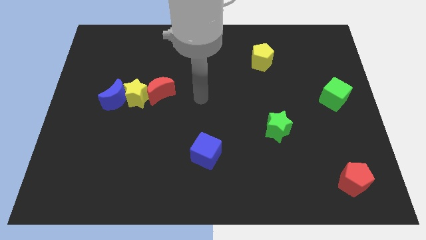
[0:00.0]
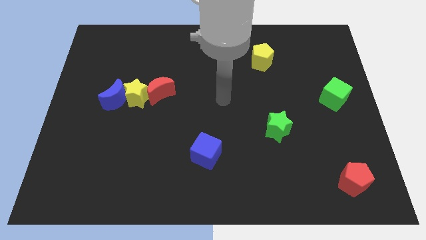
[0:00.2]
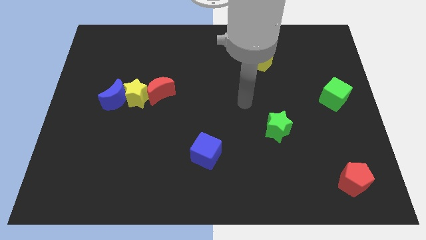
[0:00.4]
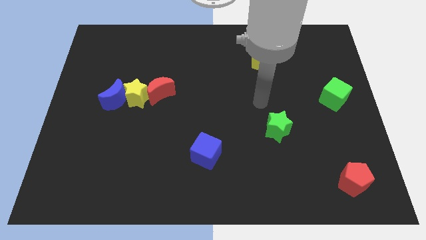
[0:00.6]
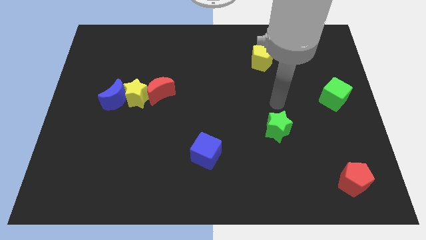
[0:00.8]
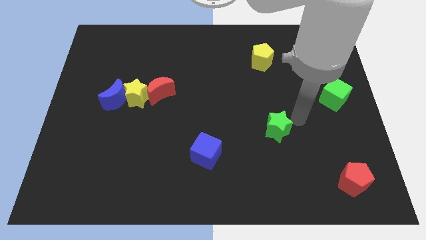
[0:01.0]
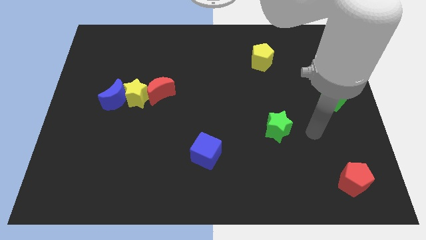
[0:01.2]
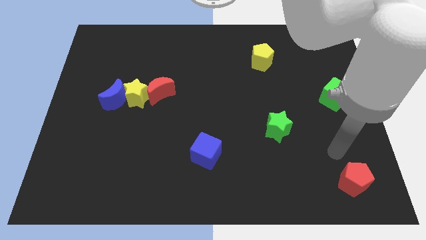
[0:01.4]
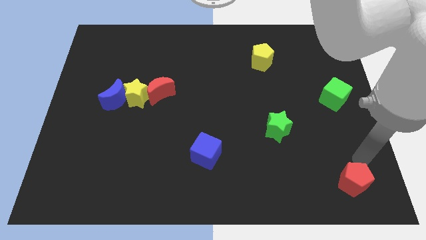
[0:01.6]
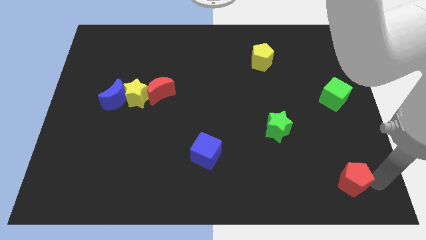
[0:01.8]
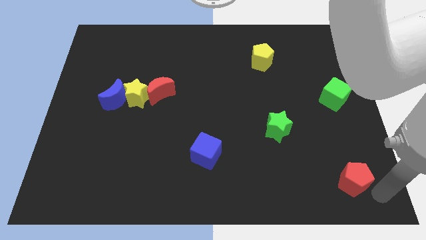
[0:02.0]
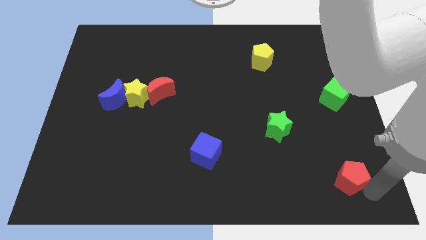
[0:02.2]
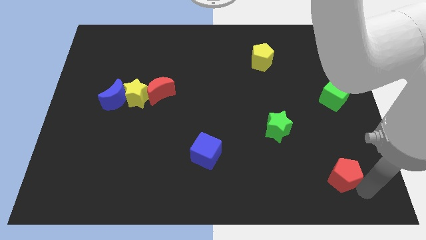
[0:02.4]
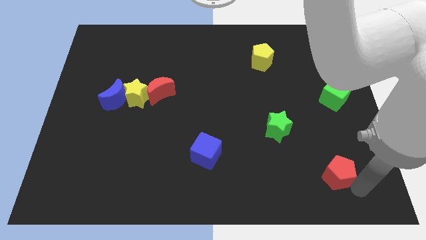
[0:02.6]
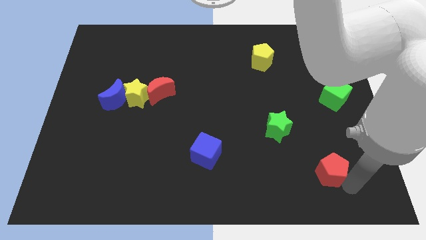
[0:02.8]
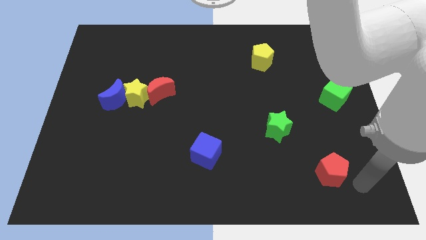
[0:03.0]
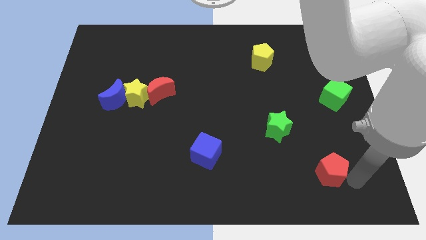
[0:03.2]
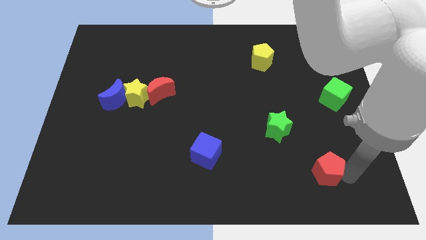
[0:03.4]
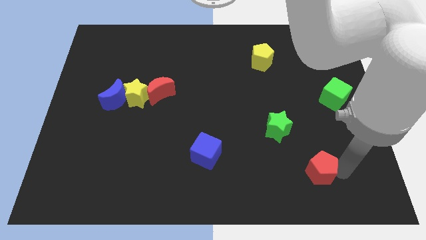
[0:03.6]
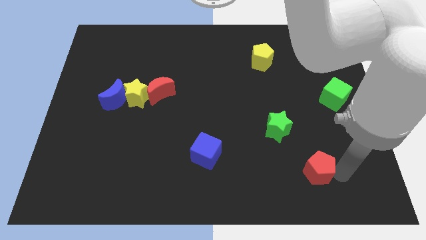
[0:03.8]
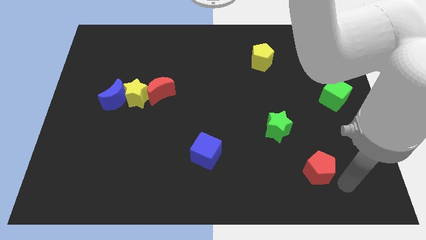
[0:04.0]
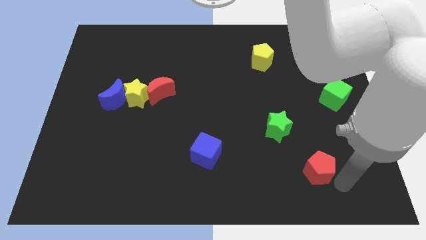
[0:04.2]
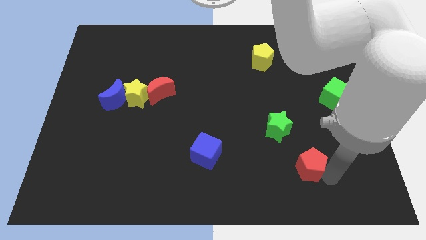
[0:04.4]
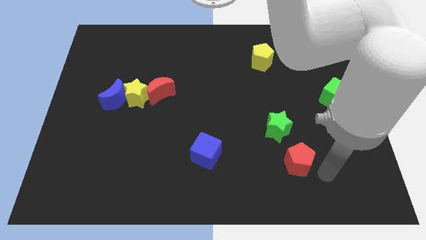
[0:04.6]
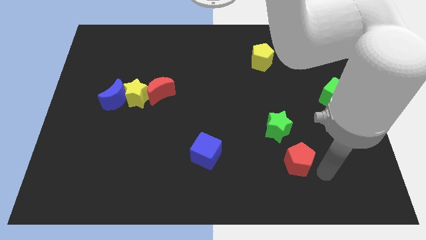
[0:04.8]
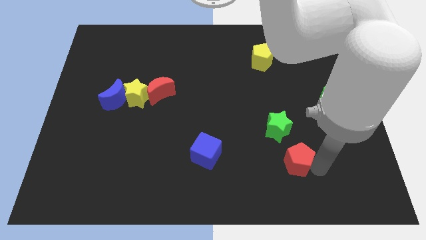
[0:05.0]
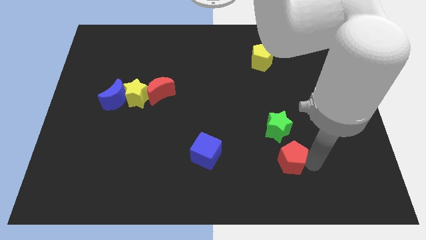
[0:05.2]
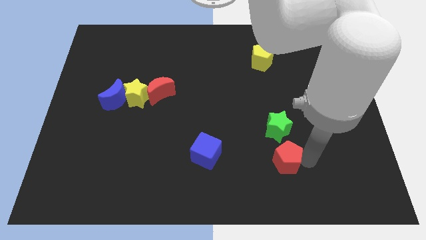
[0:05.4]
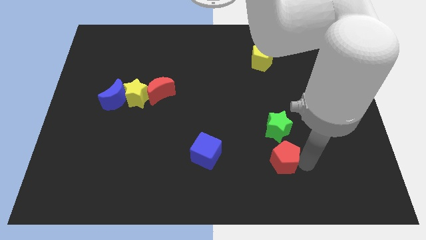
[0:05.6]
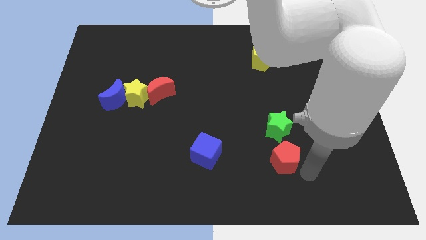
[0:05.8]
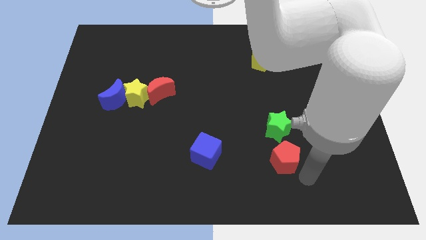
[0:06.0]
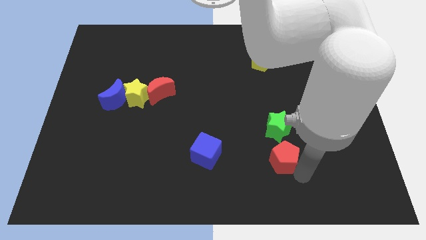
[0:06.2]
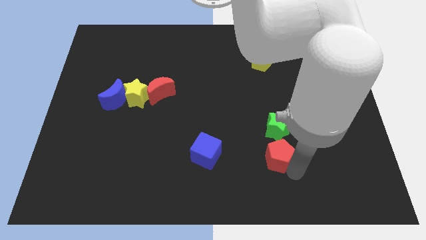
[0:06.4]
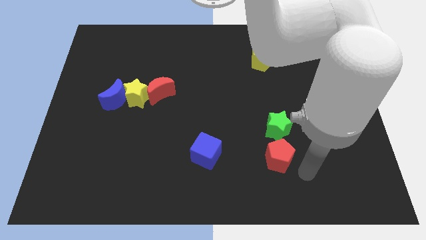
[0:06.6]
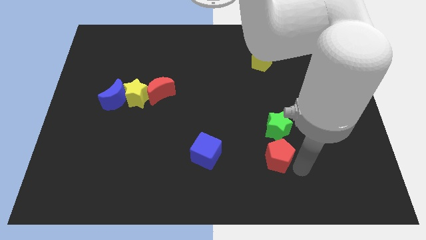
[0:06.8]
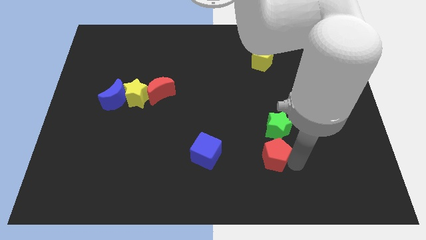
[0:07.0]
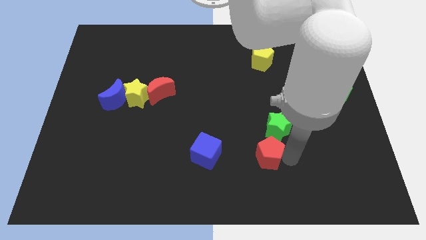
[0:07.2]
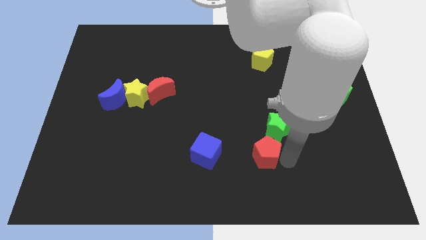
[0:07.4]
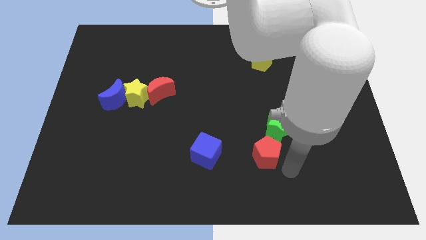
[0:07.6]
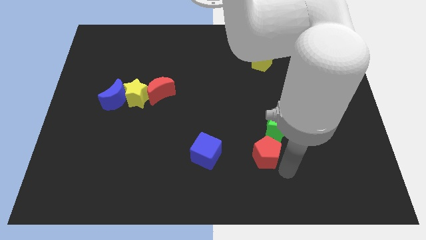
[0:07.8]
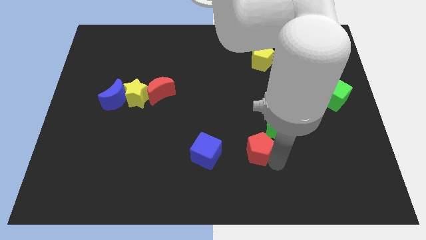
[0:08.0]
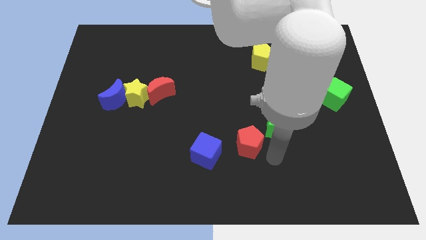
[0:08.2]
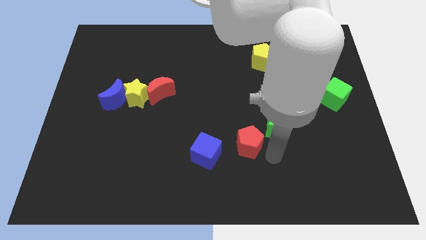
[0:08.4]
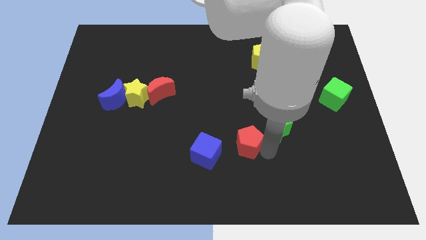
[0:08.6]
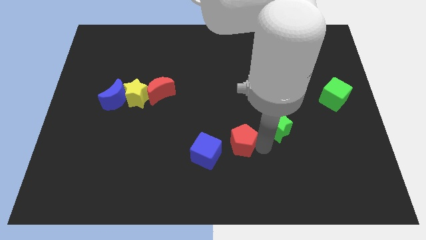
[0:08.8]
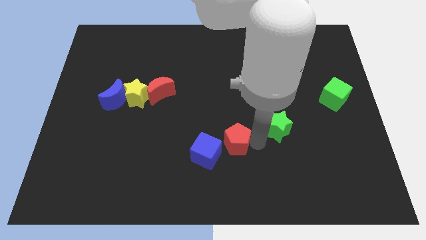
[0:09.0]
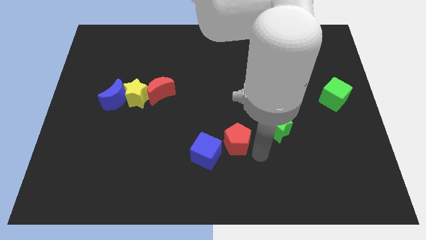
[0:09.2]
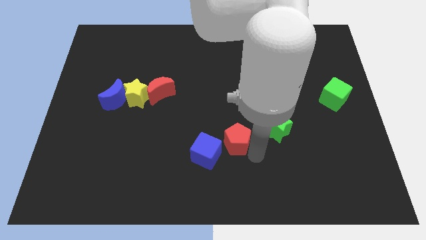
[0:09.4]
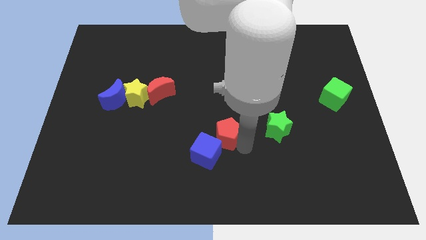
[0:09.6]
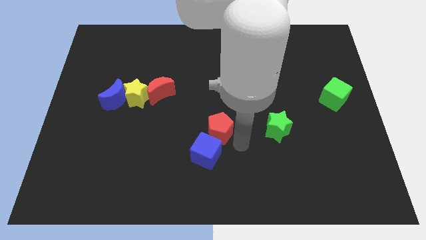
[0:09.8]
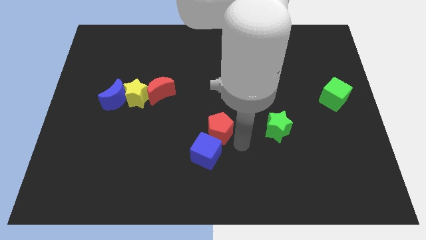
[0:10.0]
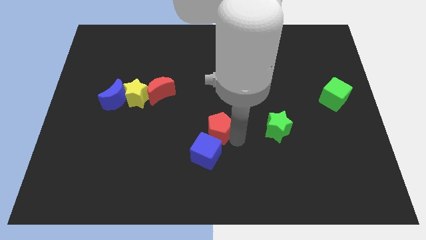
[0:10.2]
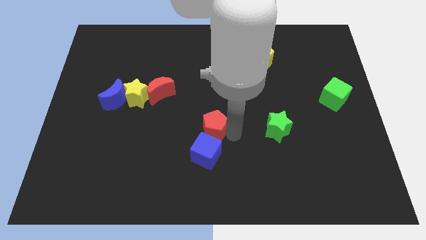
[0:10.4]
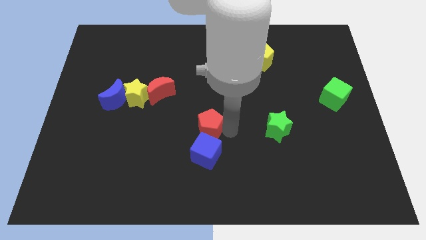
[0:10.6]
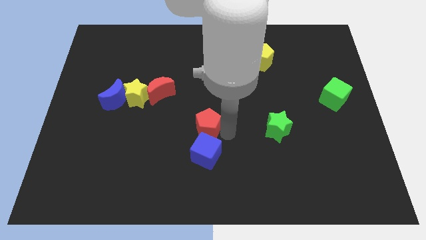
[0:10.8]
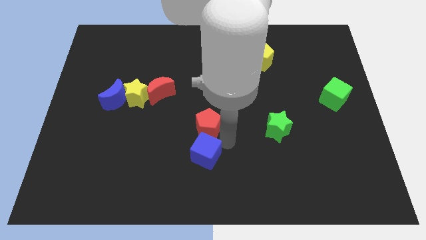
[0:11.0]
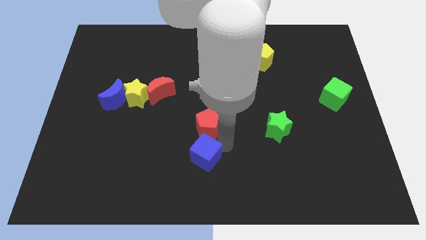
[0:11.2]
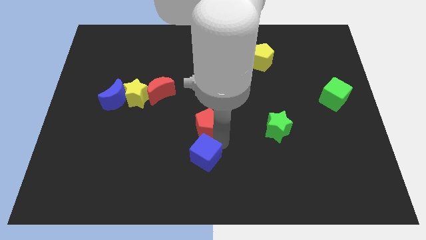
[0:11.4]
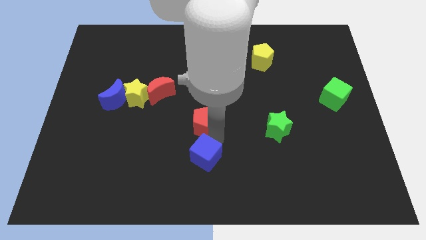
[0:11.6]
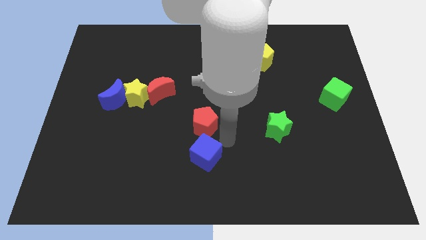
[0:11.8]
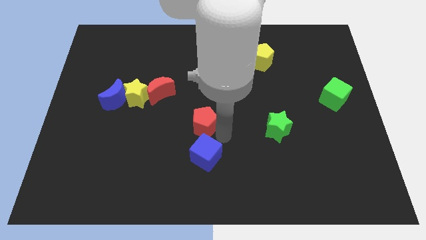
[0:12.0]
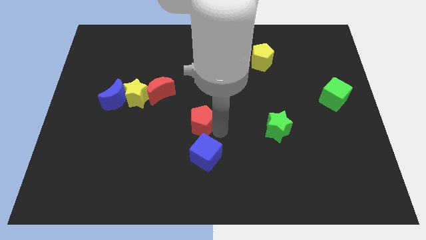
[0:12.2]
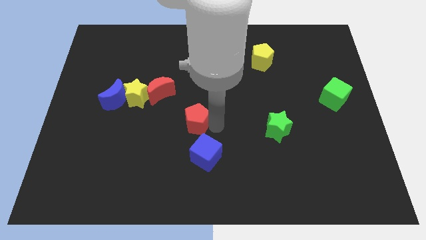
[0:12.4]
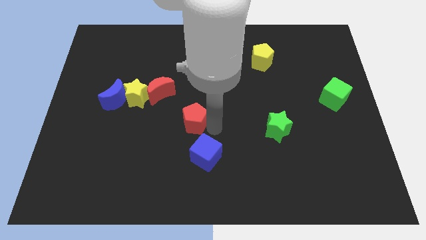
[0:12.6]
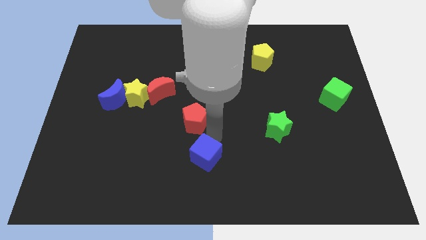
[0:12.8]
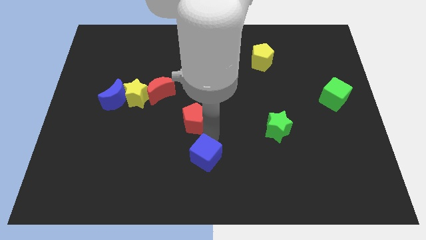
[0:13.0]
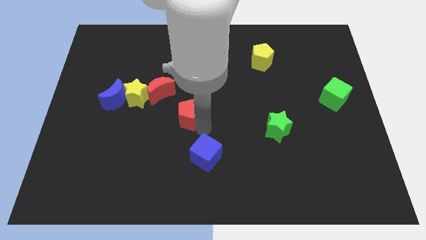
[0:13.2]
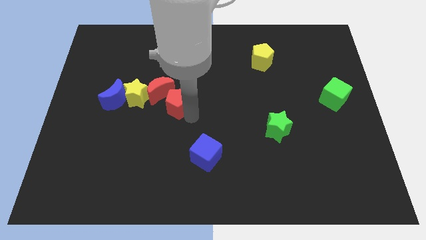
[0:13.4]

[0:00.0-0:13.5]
push the red pentagon next to the red moon

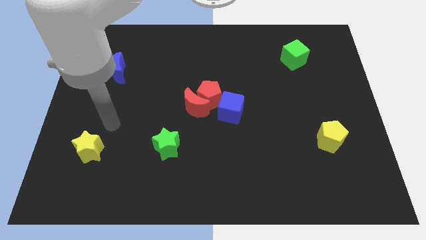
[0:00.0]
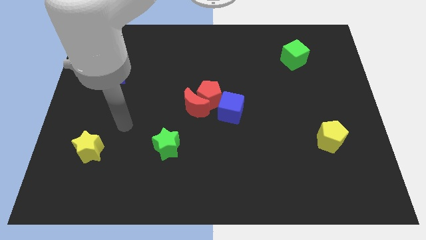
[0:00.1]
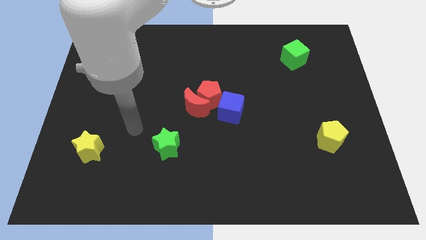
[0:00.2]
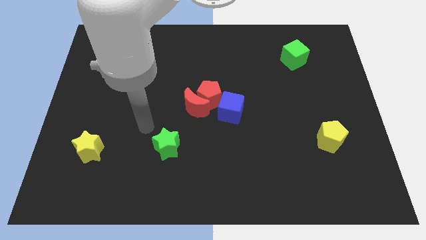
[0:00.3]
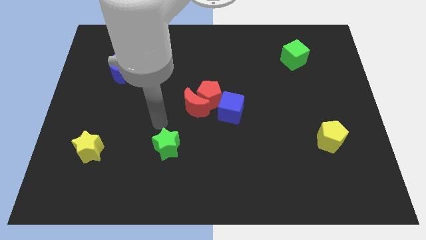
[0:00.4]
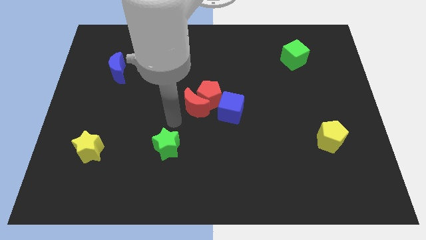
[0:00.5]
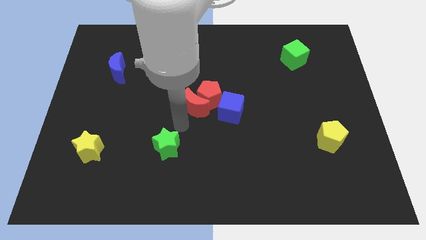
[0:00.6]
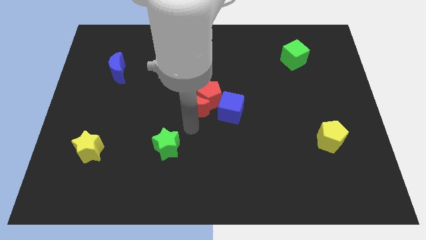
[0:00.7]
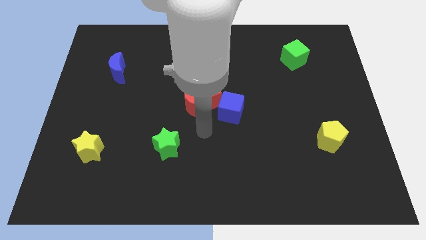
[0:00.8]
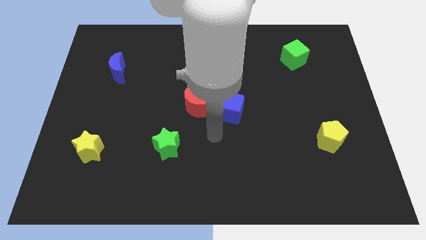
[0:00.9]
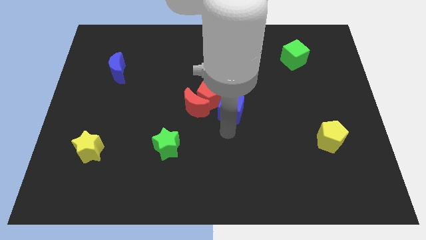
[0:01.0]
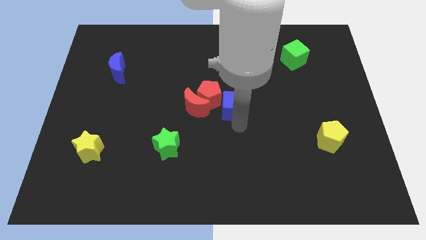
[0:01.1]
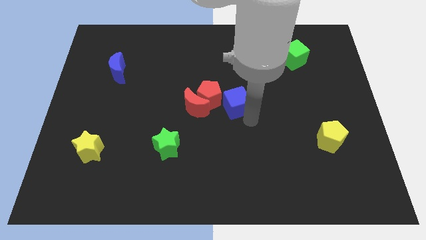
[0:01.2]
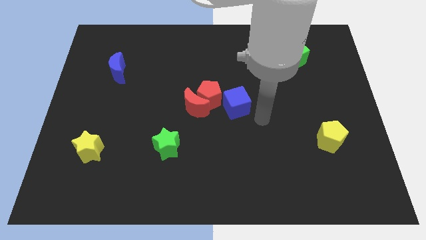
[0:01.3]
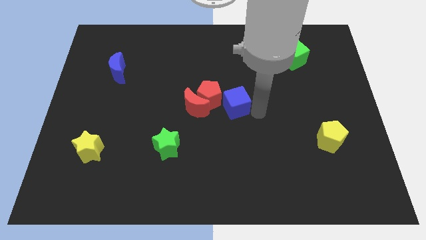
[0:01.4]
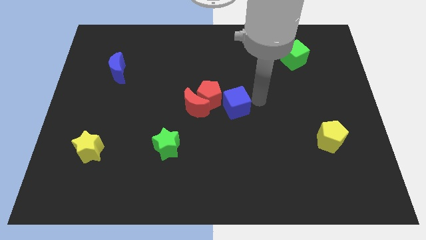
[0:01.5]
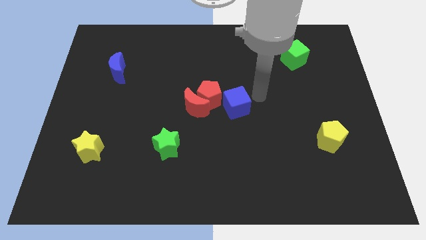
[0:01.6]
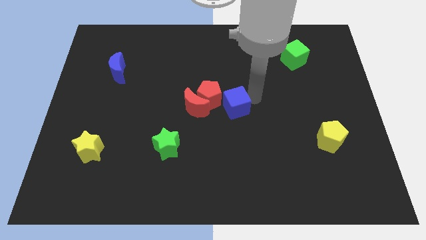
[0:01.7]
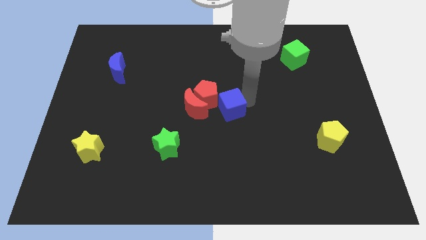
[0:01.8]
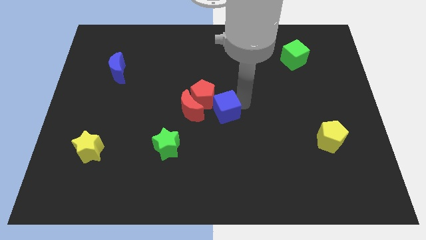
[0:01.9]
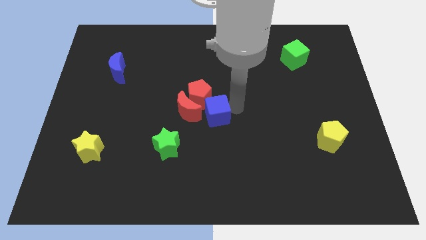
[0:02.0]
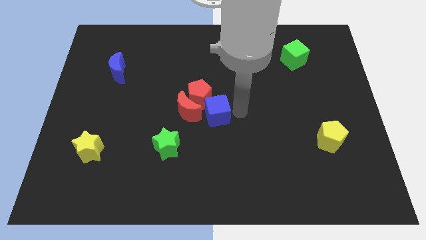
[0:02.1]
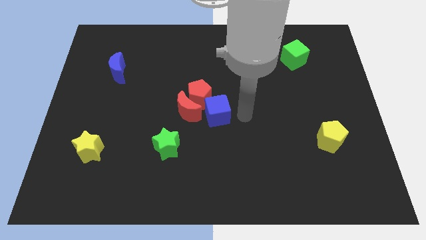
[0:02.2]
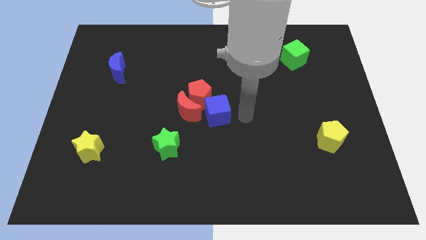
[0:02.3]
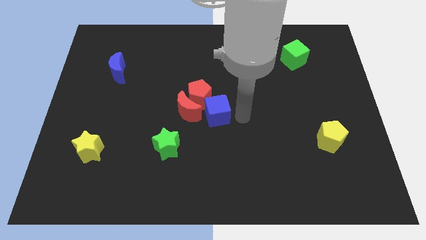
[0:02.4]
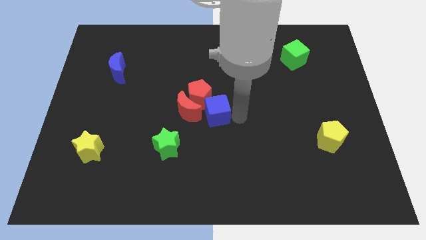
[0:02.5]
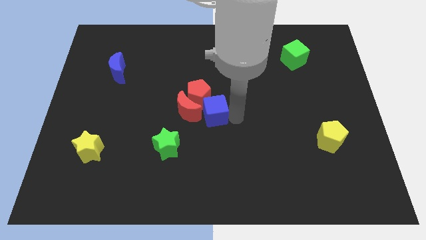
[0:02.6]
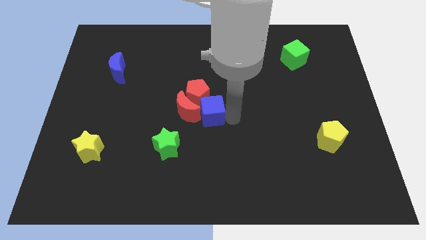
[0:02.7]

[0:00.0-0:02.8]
push the blue cube next to the red moon
